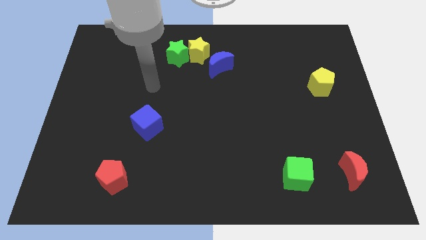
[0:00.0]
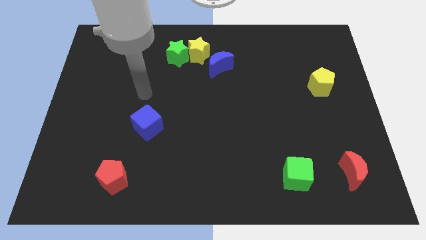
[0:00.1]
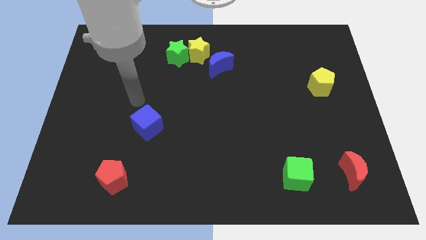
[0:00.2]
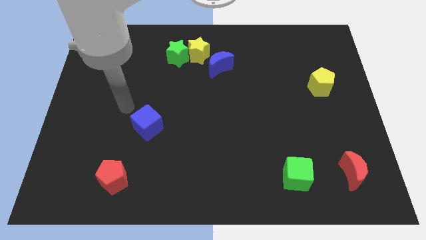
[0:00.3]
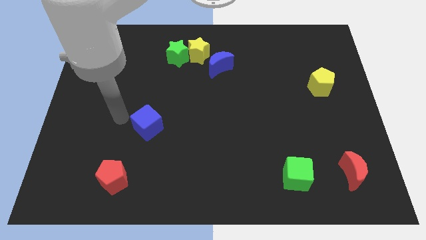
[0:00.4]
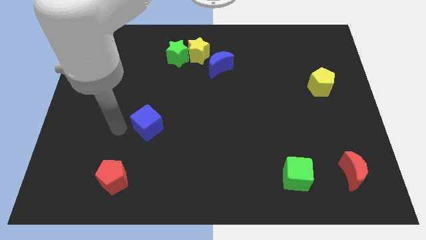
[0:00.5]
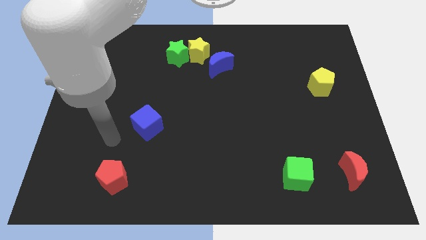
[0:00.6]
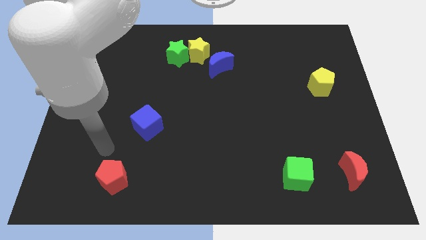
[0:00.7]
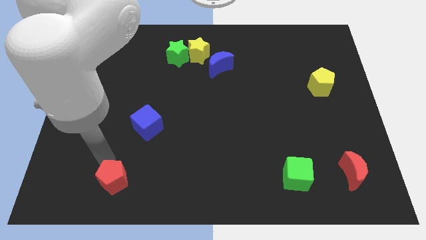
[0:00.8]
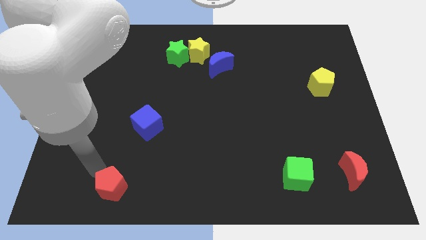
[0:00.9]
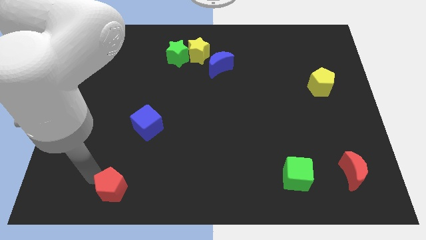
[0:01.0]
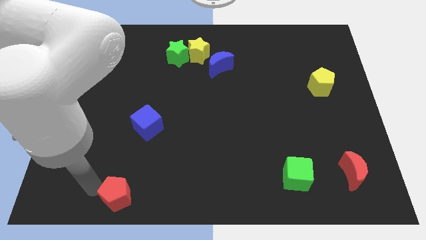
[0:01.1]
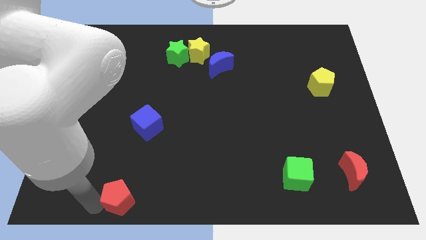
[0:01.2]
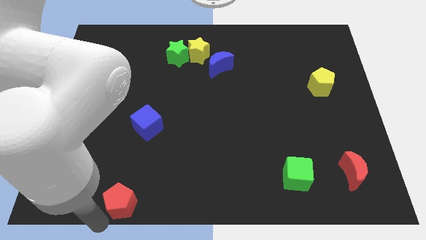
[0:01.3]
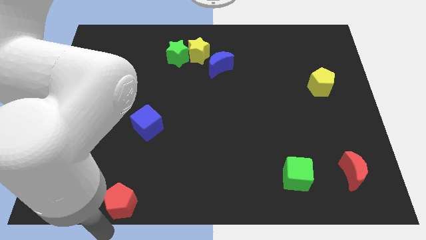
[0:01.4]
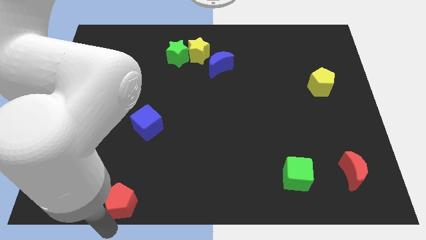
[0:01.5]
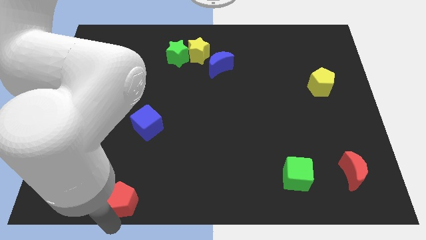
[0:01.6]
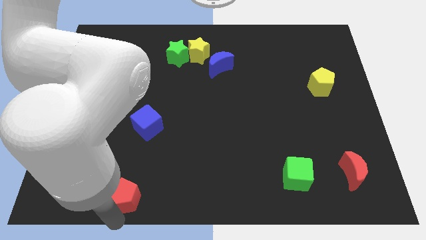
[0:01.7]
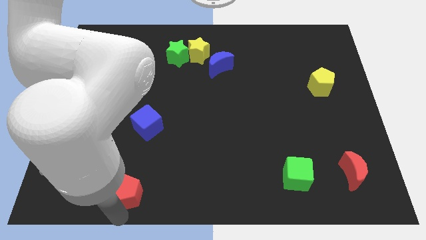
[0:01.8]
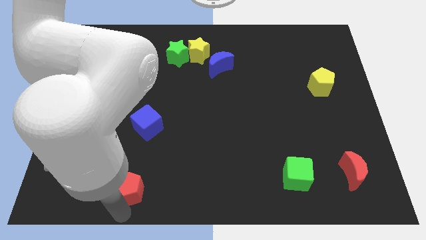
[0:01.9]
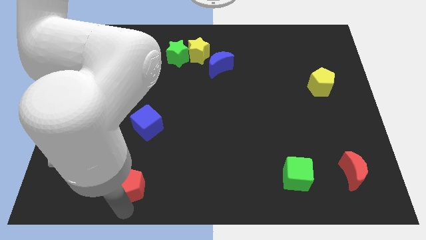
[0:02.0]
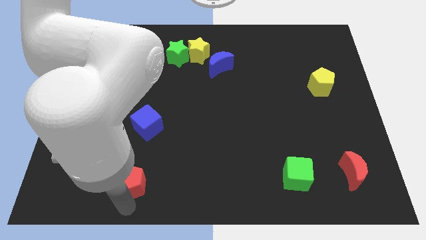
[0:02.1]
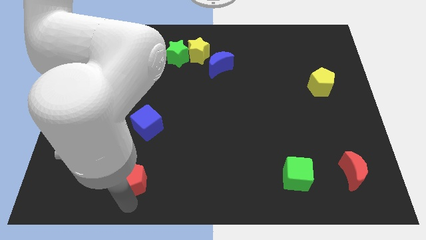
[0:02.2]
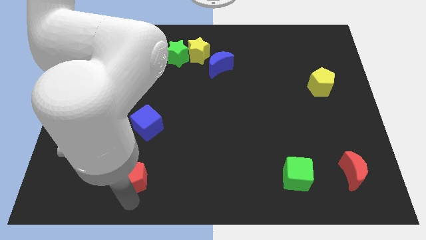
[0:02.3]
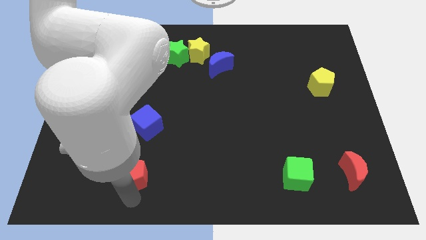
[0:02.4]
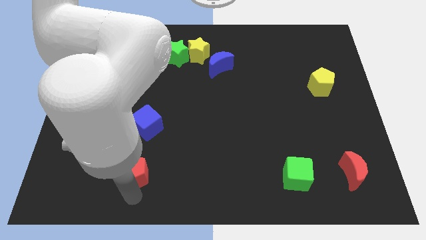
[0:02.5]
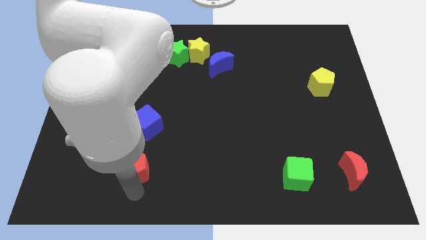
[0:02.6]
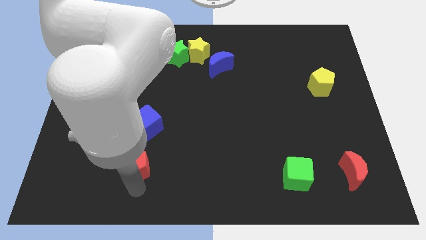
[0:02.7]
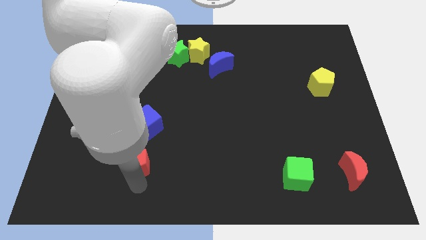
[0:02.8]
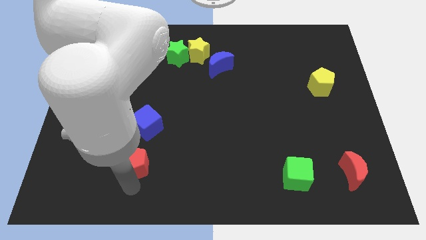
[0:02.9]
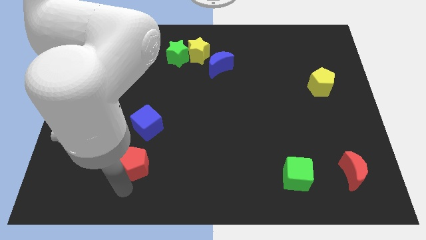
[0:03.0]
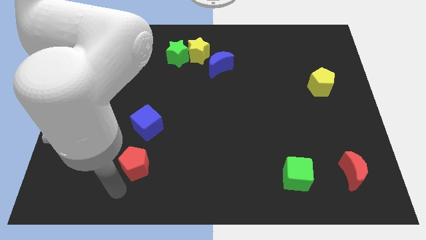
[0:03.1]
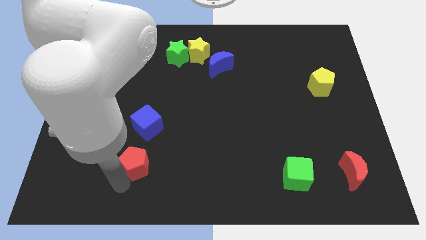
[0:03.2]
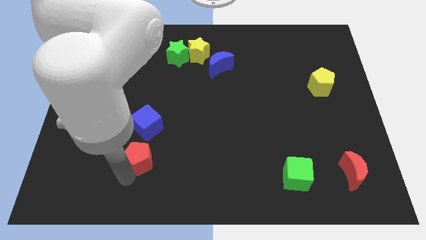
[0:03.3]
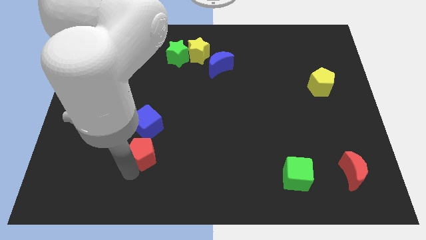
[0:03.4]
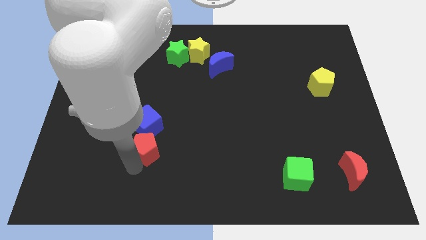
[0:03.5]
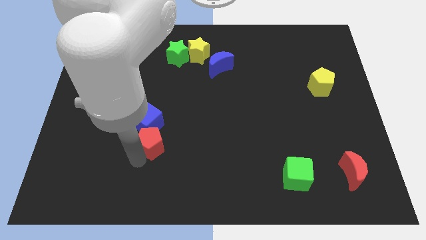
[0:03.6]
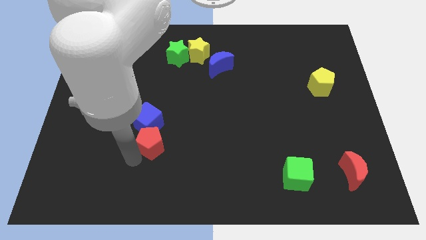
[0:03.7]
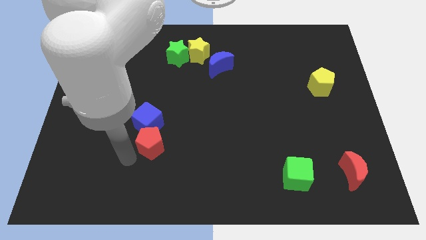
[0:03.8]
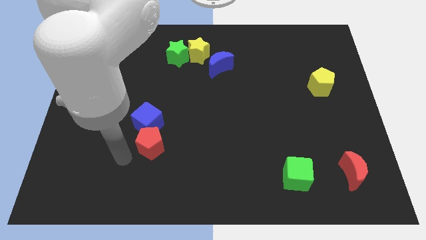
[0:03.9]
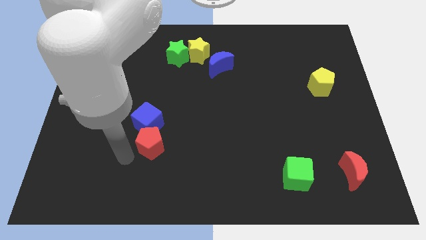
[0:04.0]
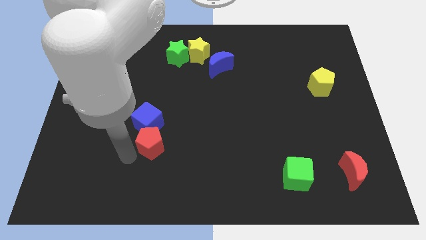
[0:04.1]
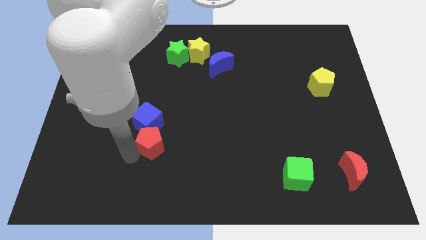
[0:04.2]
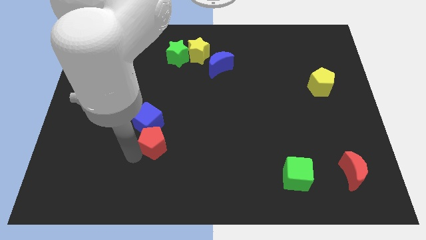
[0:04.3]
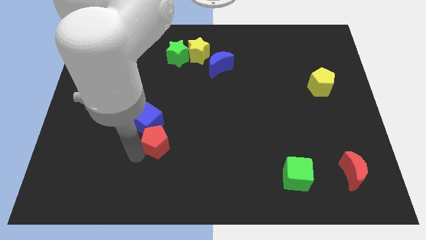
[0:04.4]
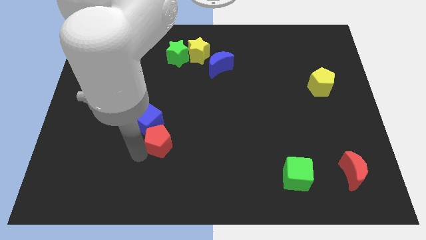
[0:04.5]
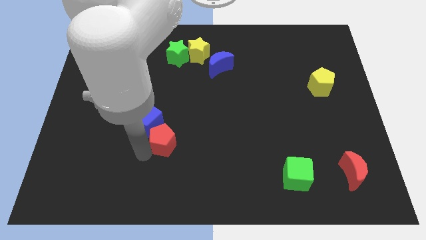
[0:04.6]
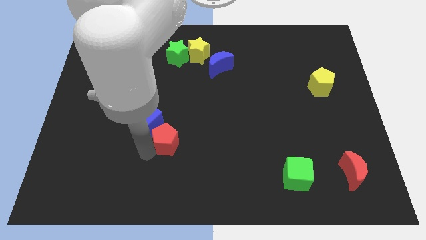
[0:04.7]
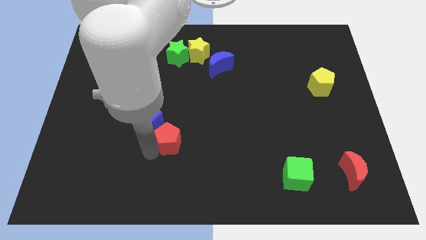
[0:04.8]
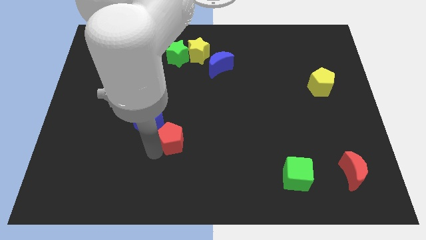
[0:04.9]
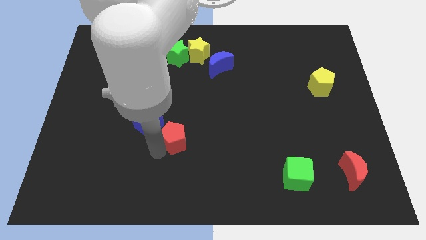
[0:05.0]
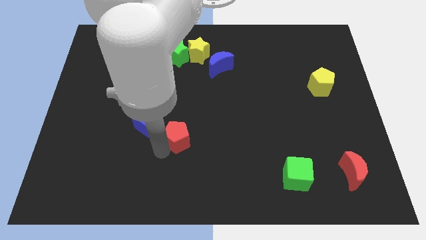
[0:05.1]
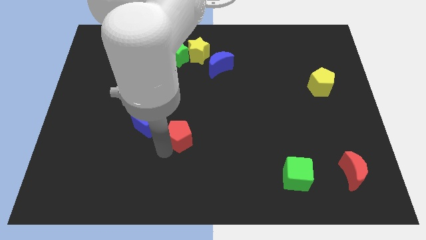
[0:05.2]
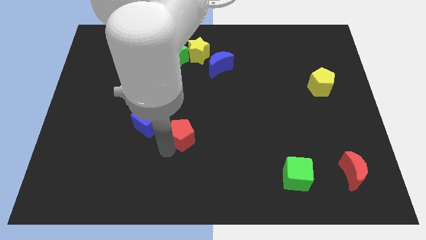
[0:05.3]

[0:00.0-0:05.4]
put the red pentagon to the middle of the board
